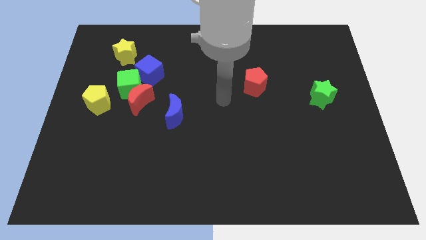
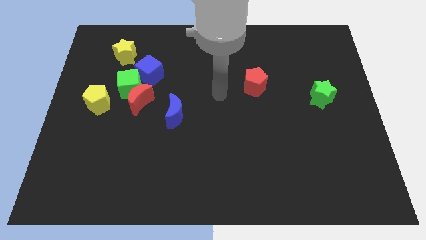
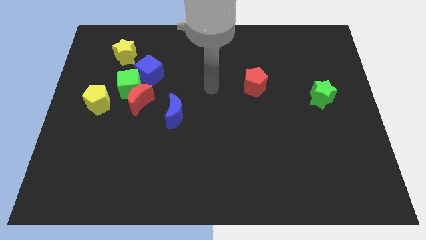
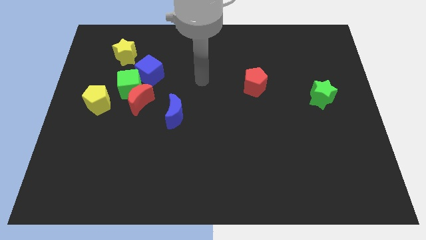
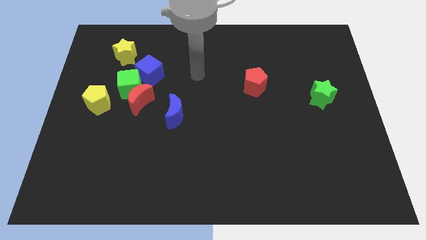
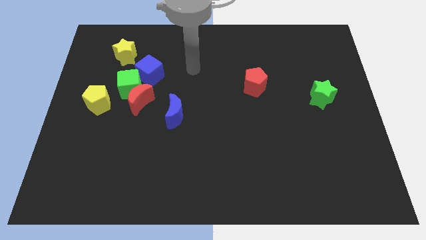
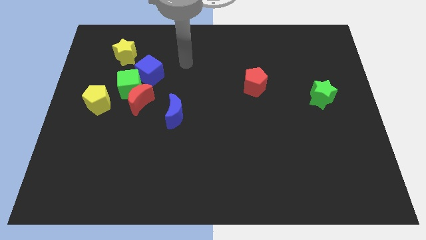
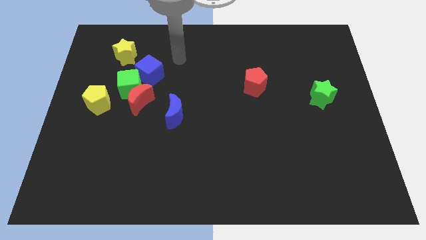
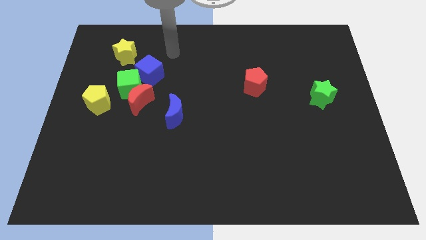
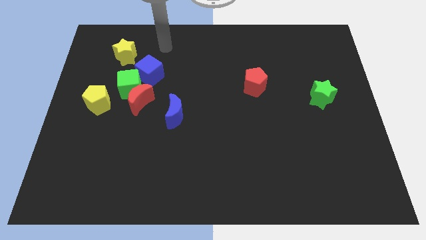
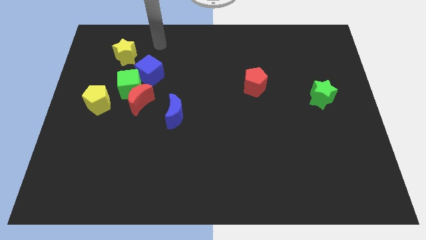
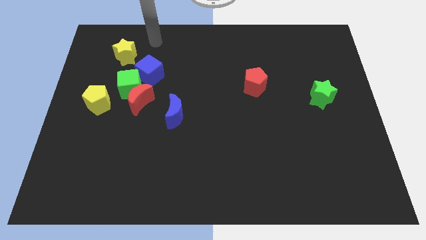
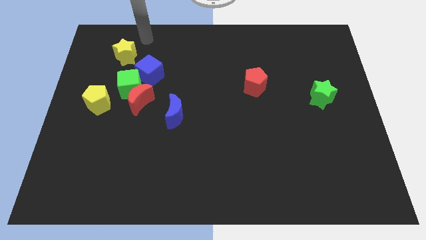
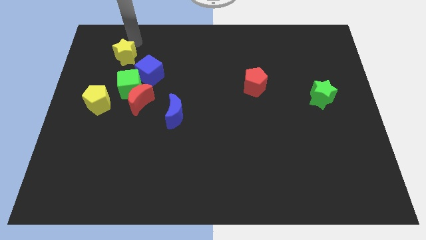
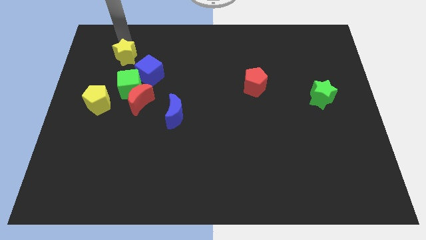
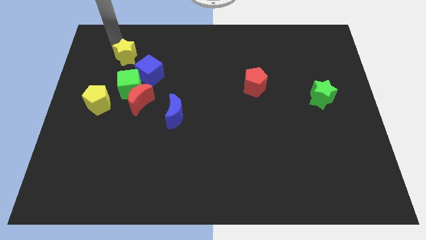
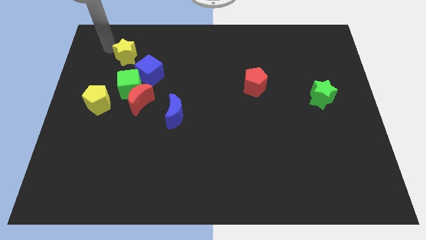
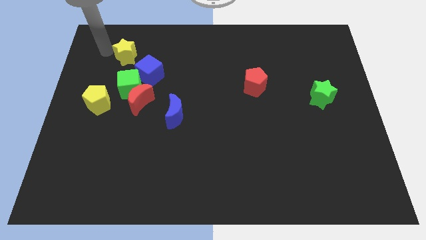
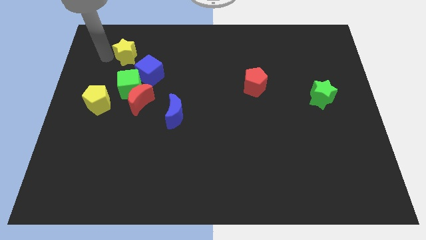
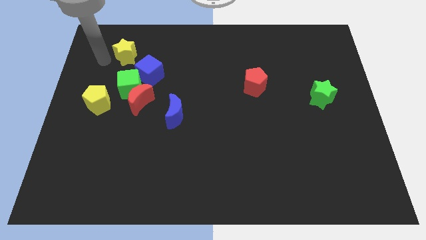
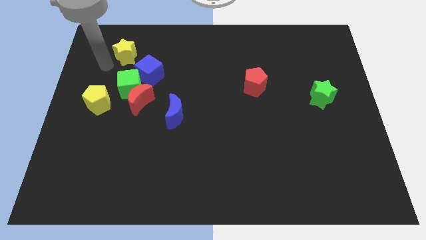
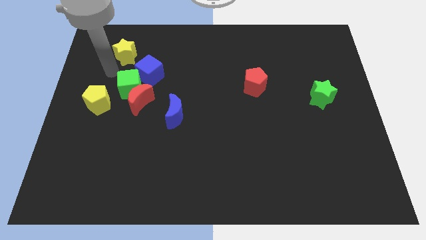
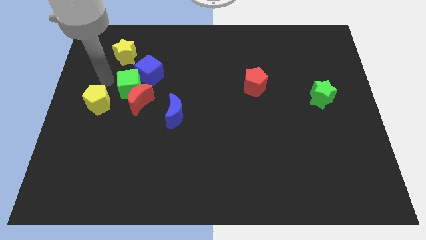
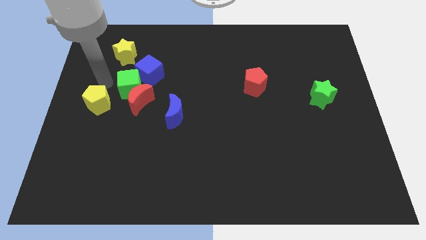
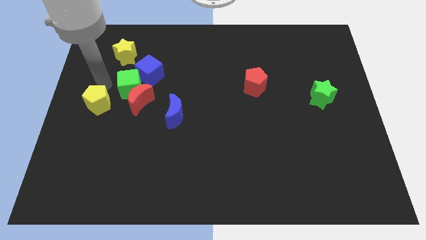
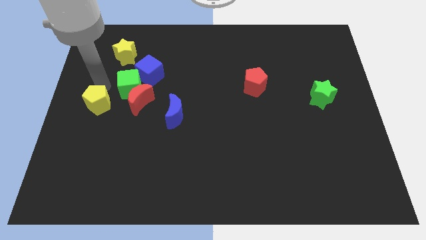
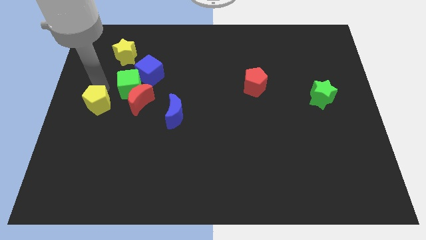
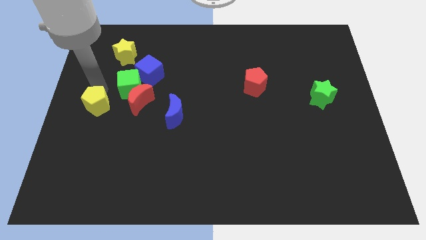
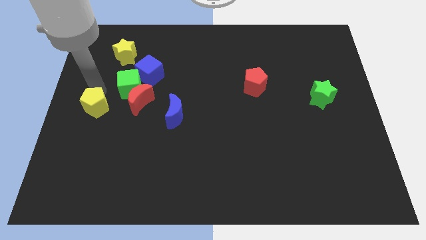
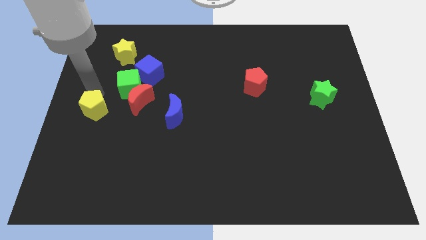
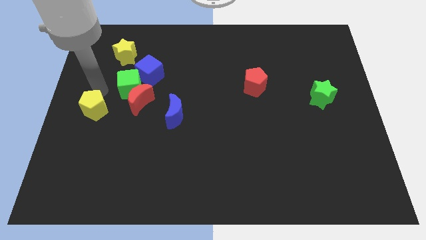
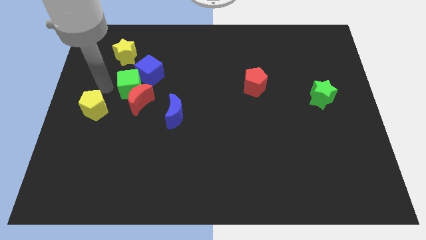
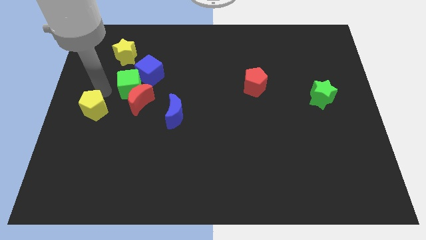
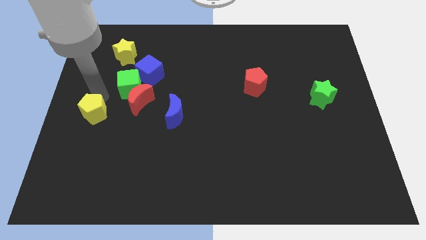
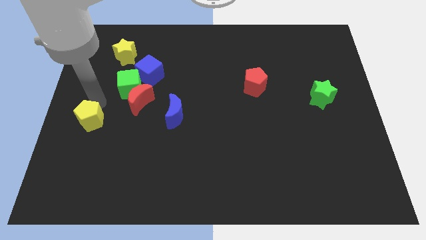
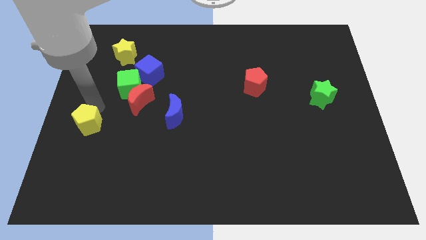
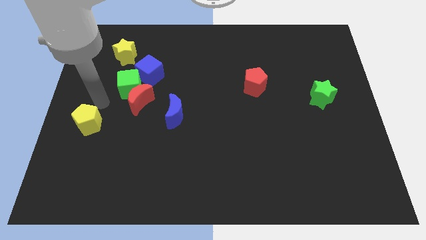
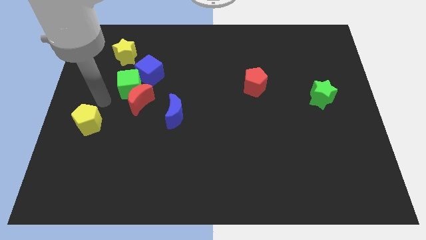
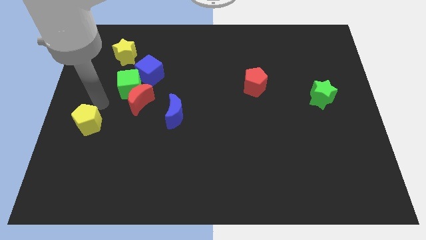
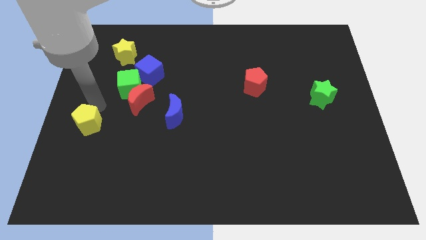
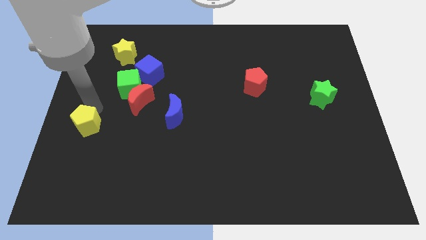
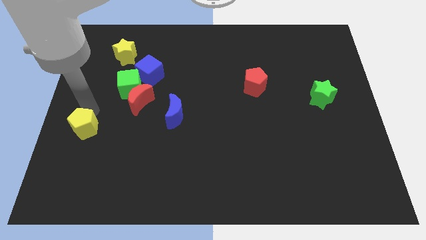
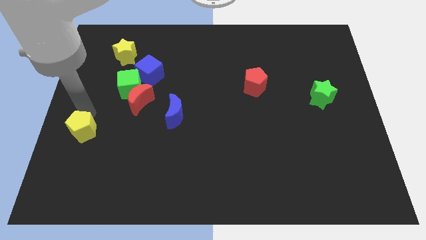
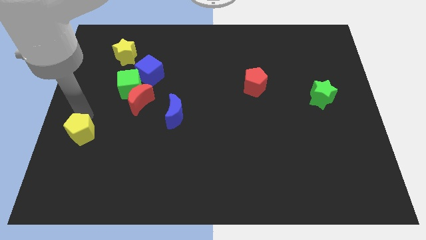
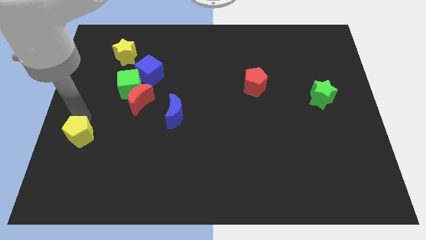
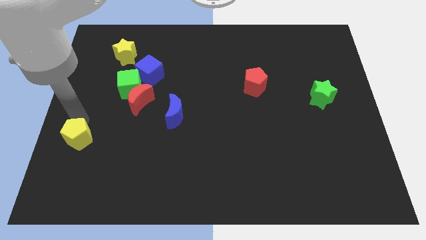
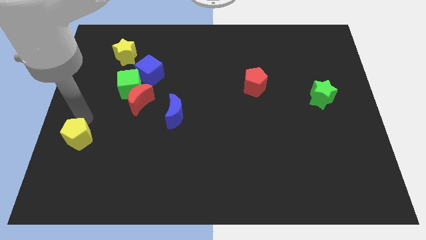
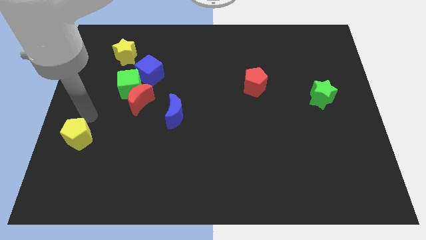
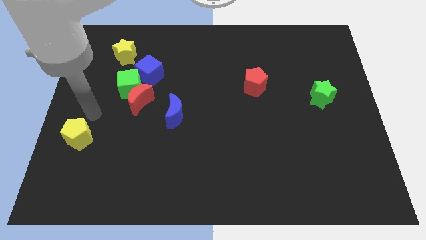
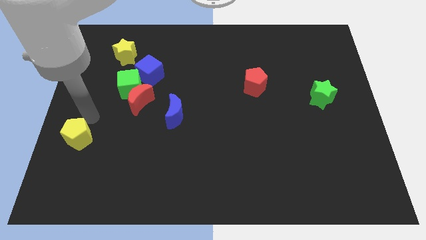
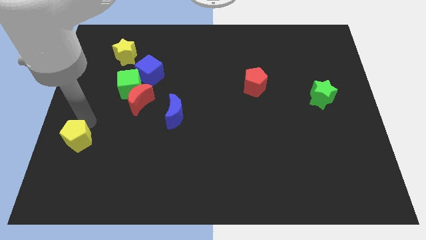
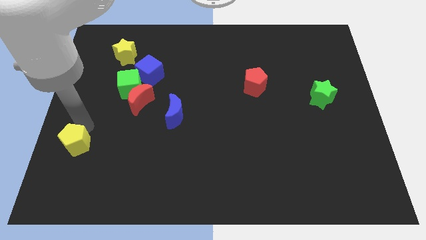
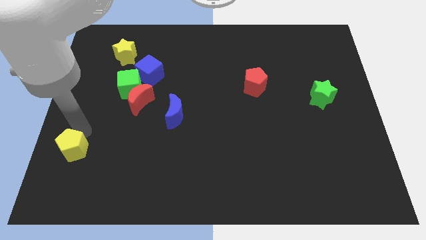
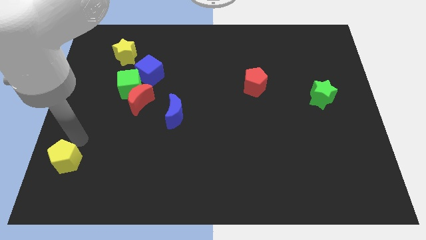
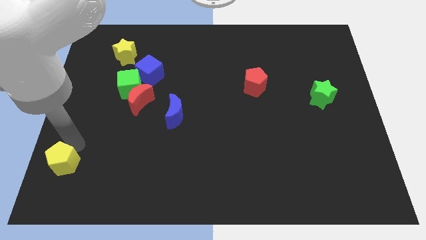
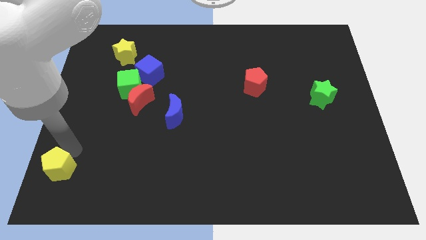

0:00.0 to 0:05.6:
move the yellow pentagon to the lower left corner

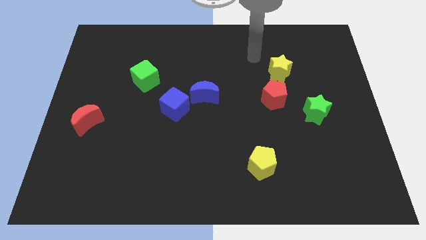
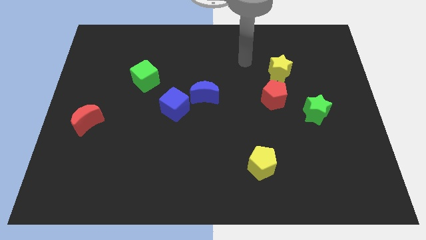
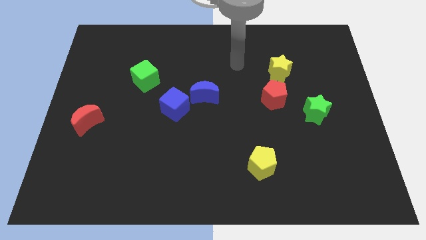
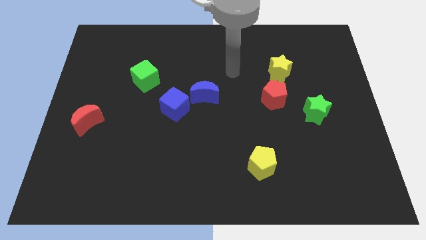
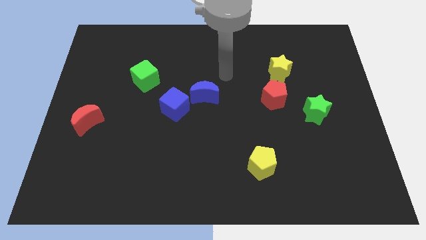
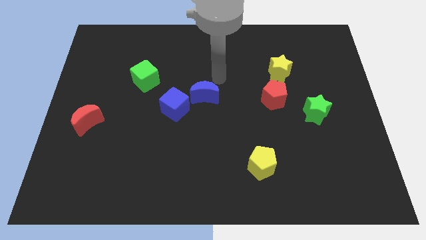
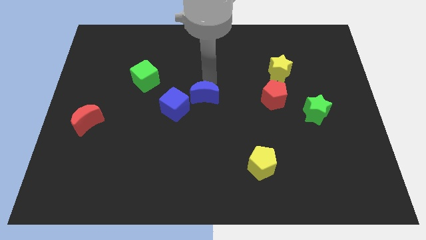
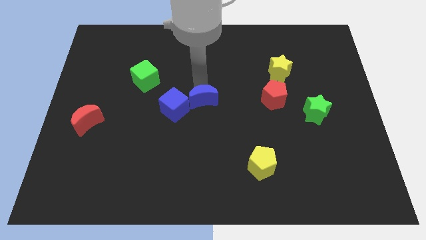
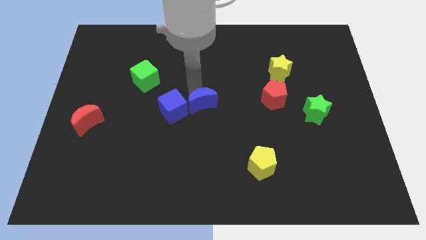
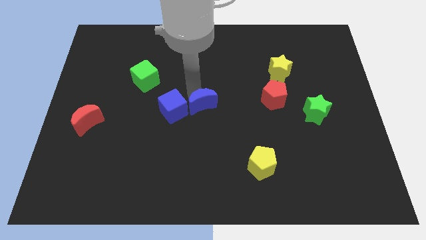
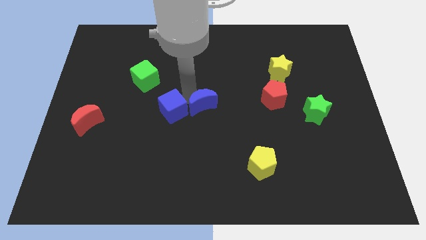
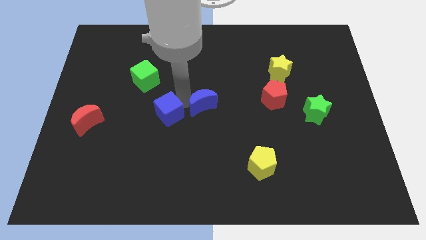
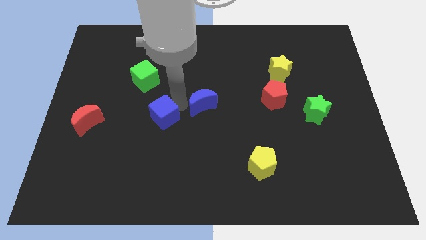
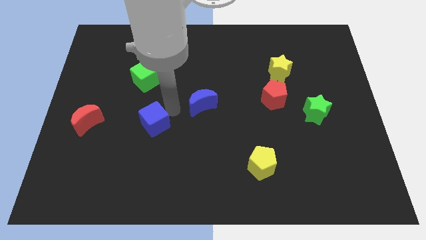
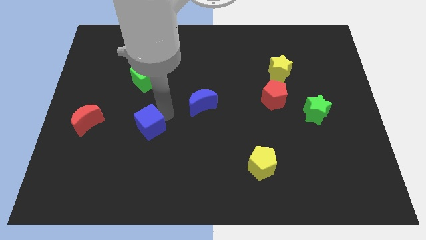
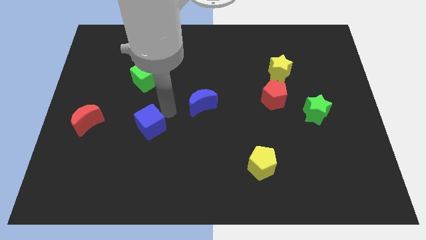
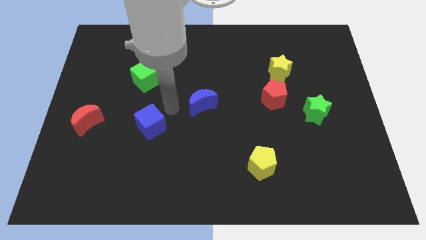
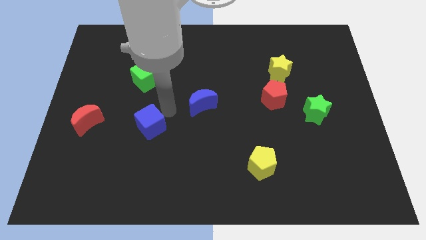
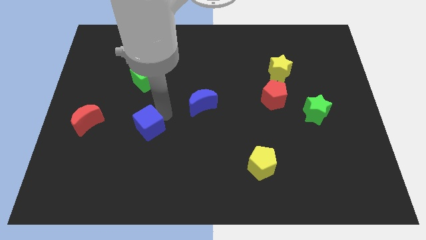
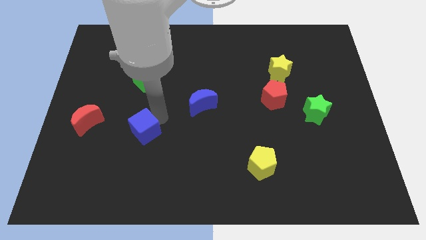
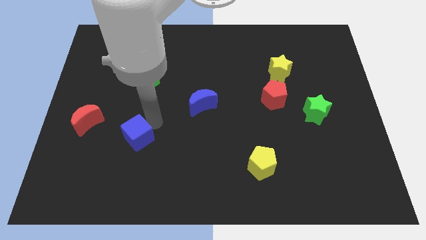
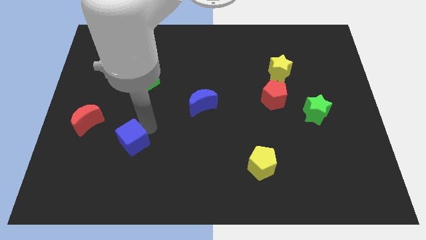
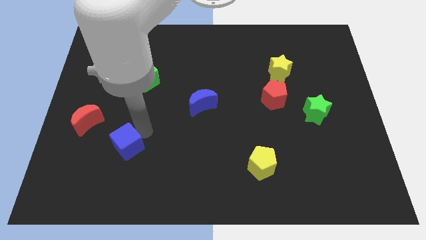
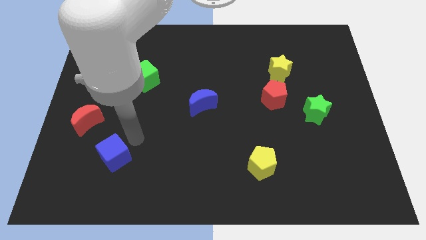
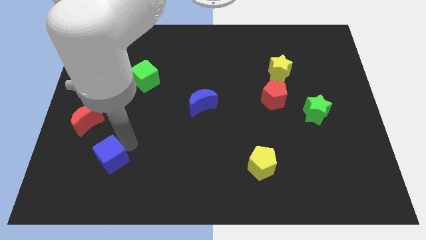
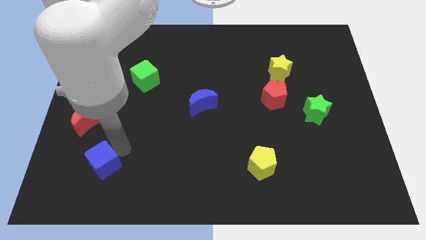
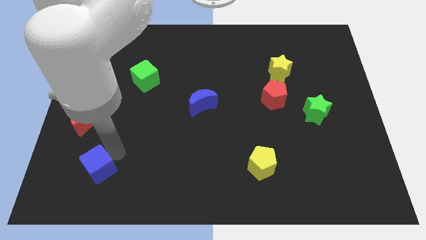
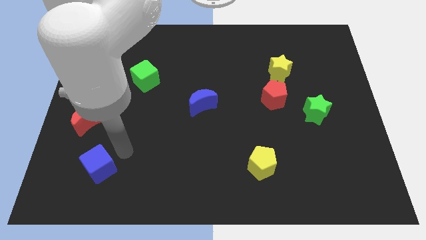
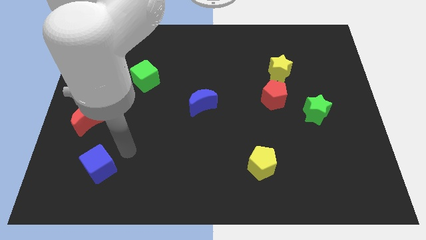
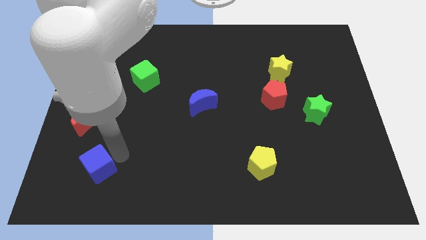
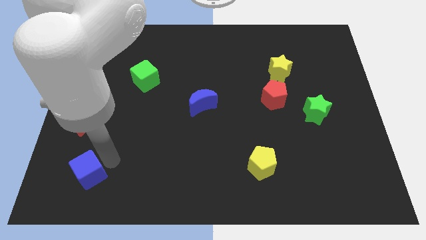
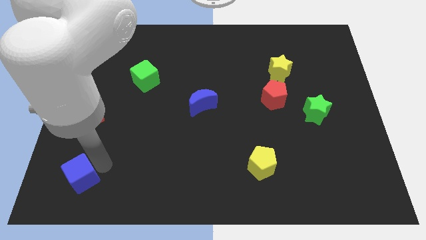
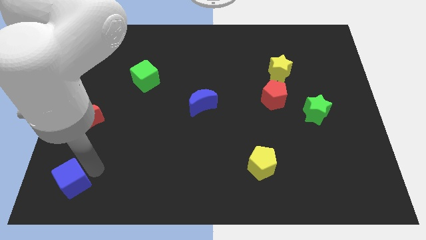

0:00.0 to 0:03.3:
move the blue cube to the bottom left of the board
